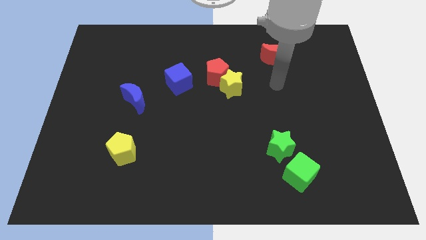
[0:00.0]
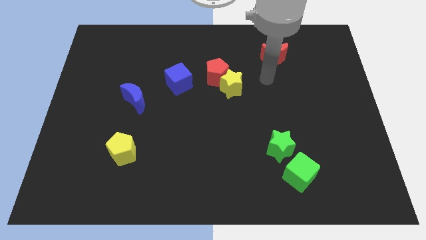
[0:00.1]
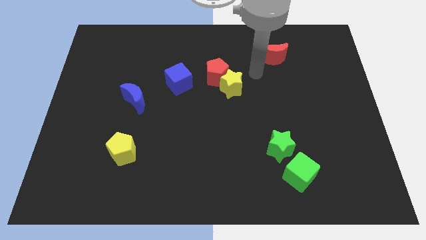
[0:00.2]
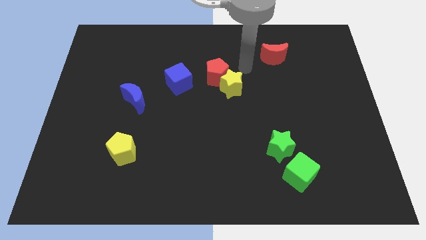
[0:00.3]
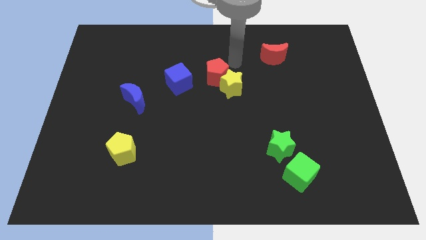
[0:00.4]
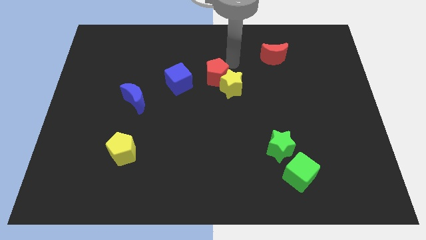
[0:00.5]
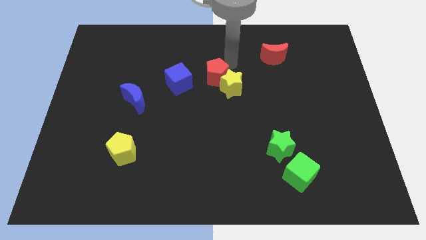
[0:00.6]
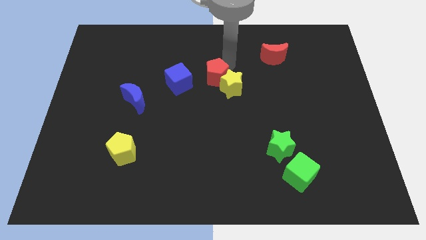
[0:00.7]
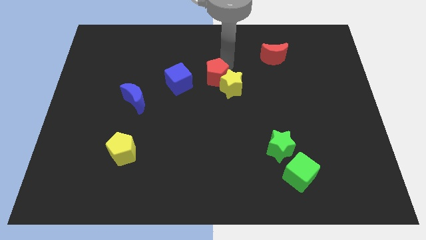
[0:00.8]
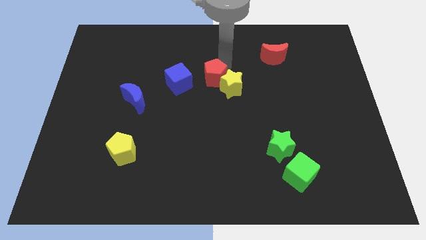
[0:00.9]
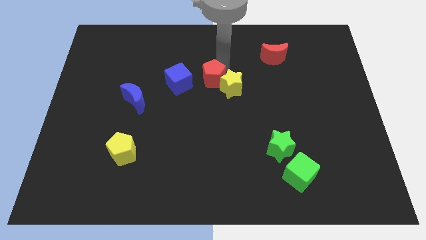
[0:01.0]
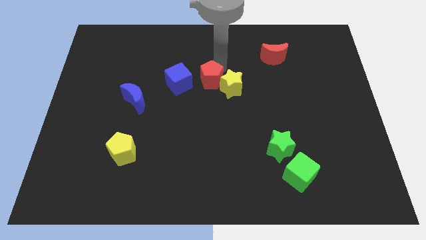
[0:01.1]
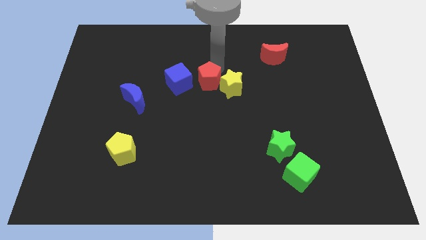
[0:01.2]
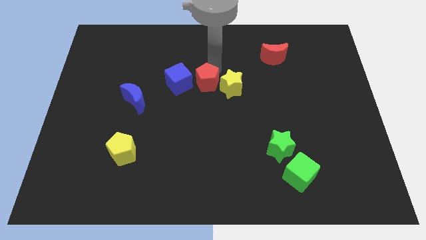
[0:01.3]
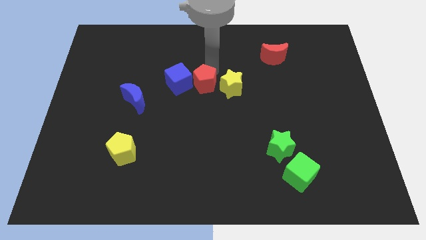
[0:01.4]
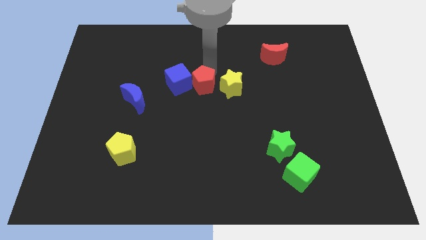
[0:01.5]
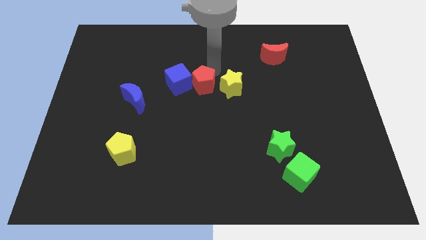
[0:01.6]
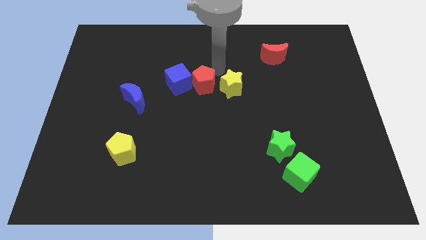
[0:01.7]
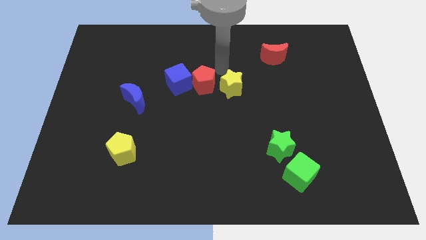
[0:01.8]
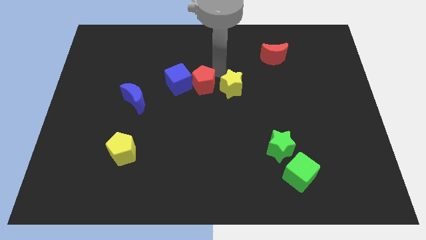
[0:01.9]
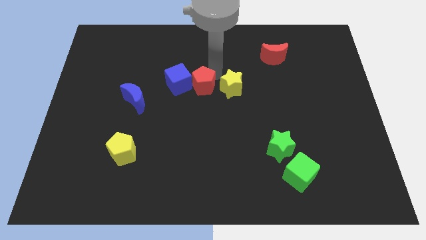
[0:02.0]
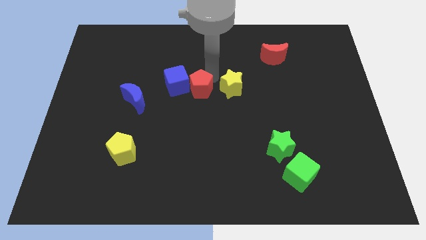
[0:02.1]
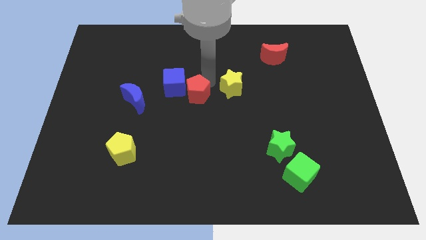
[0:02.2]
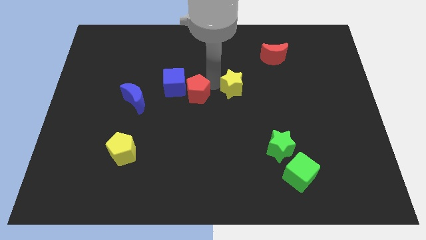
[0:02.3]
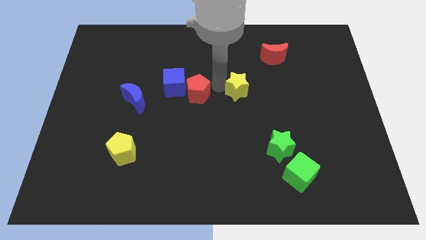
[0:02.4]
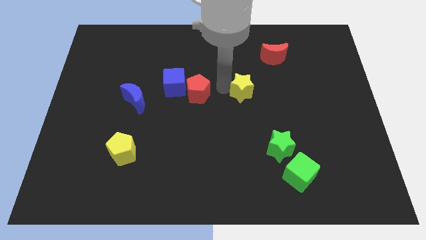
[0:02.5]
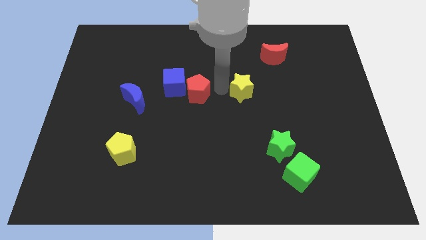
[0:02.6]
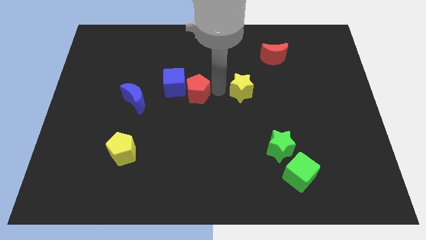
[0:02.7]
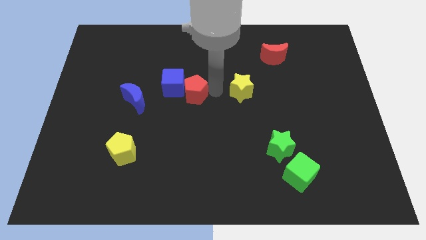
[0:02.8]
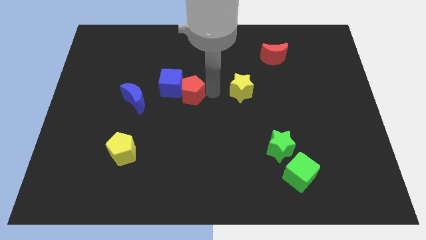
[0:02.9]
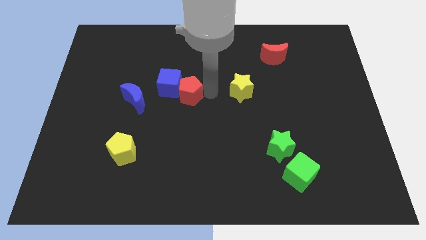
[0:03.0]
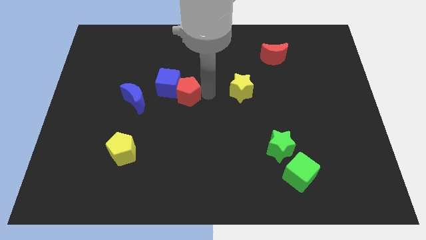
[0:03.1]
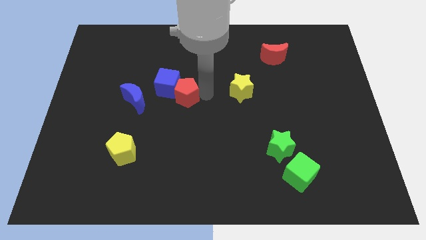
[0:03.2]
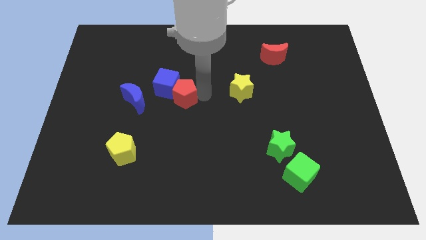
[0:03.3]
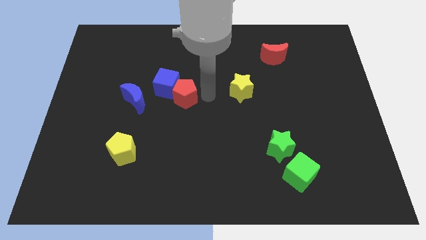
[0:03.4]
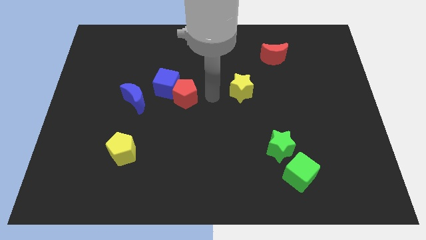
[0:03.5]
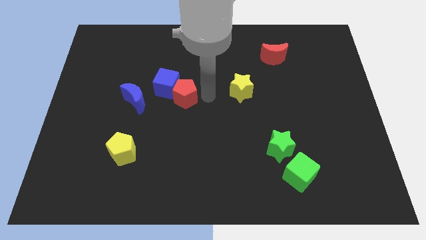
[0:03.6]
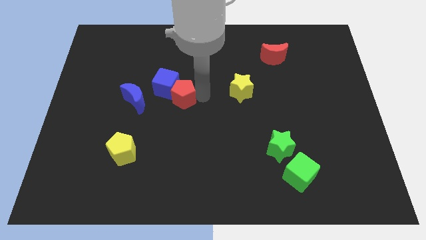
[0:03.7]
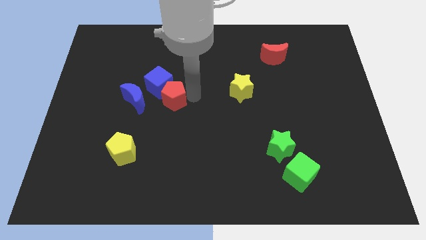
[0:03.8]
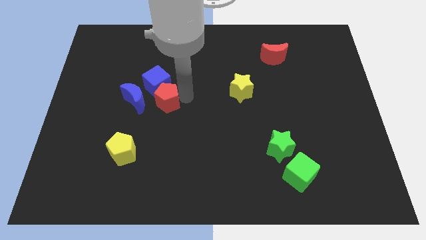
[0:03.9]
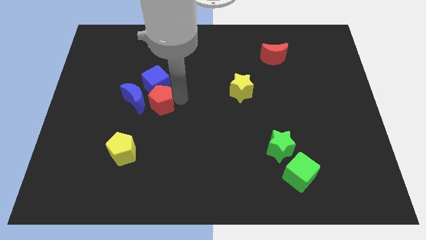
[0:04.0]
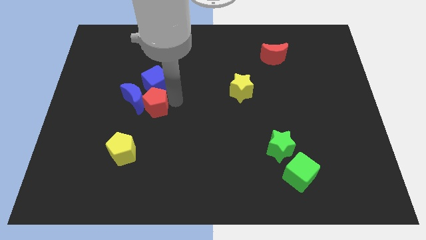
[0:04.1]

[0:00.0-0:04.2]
put the red pentagon next to the blue moon

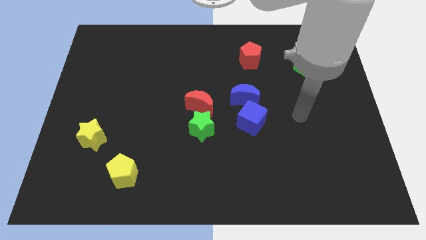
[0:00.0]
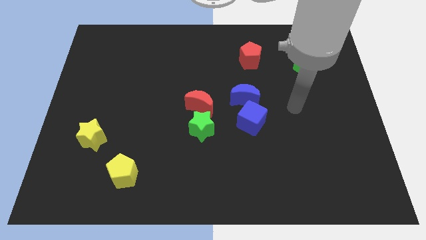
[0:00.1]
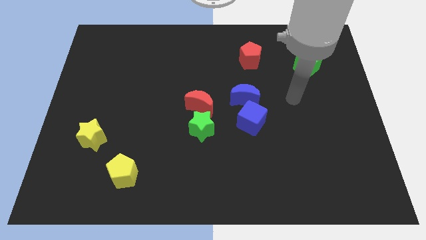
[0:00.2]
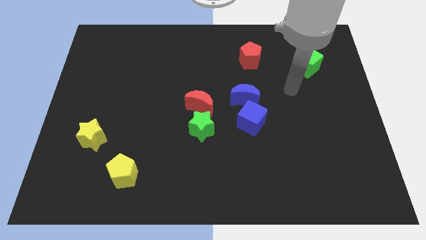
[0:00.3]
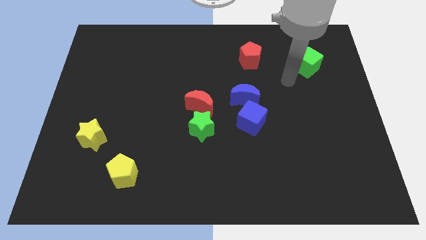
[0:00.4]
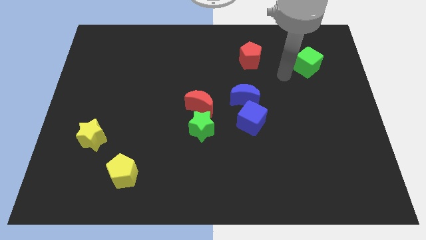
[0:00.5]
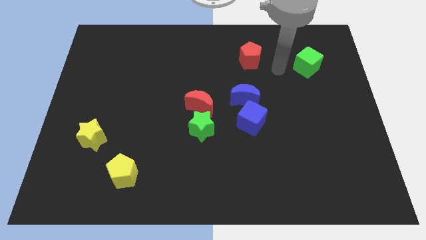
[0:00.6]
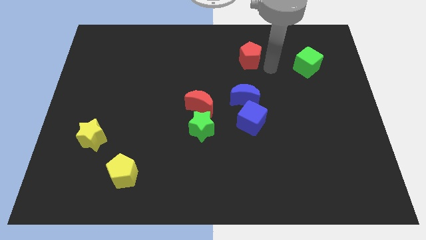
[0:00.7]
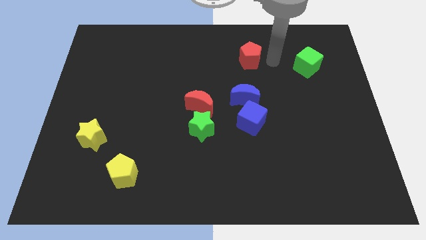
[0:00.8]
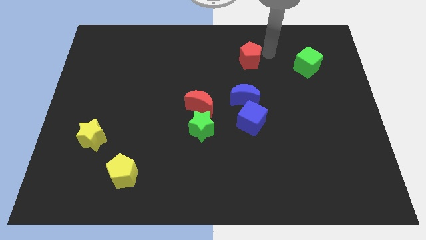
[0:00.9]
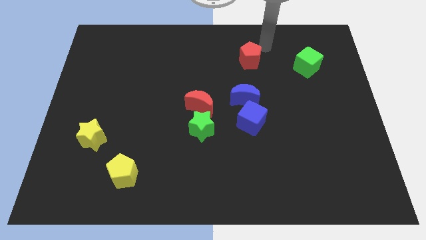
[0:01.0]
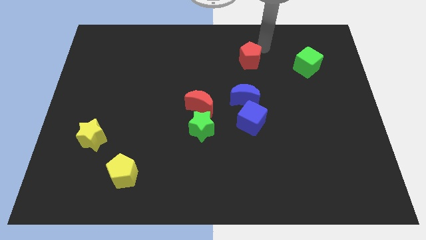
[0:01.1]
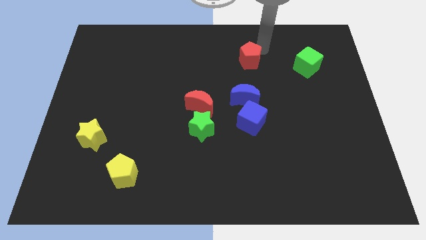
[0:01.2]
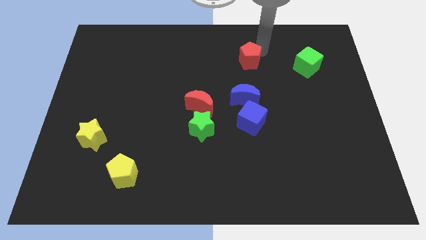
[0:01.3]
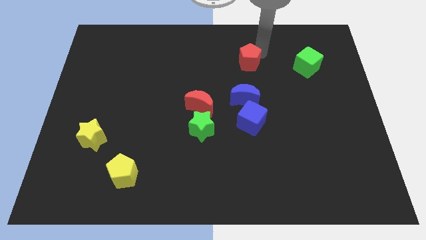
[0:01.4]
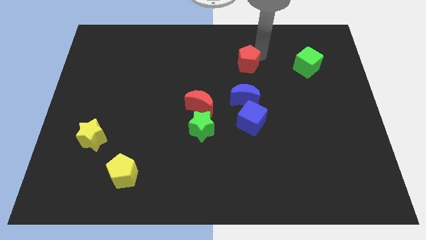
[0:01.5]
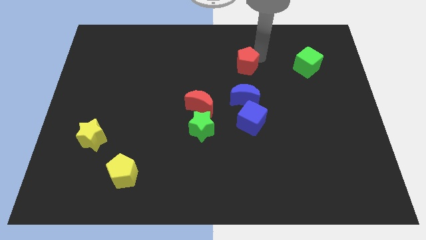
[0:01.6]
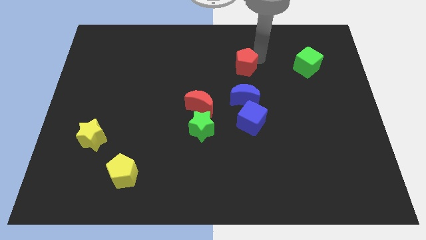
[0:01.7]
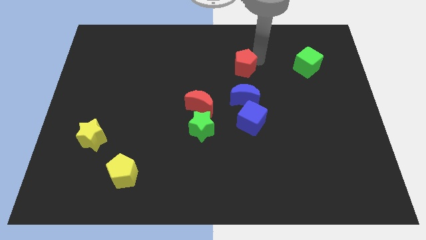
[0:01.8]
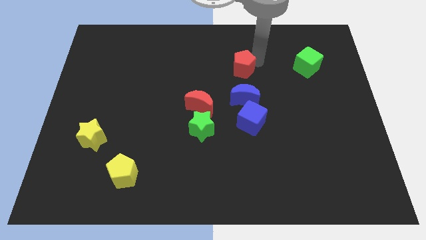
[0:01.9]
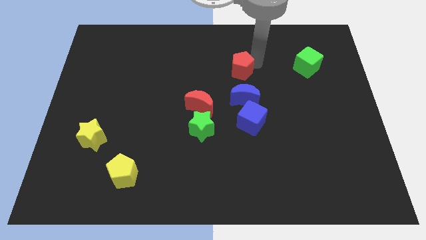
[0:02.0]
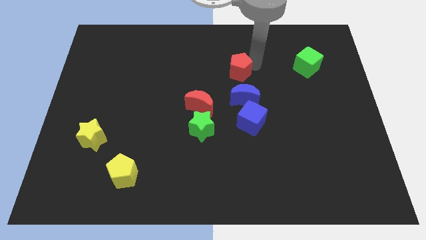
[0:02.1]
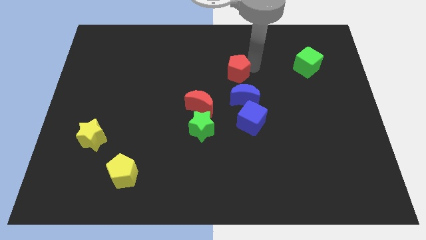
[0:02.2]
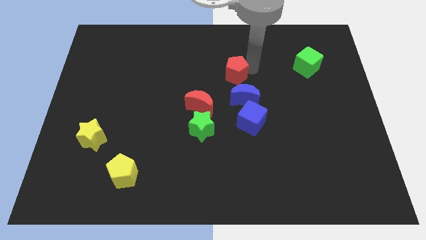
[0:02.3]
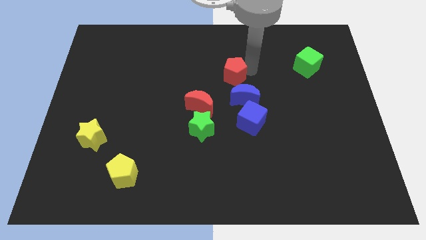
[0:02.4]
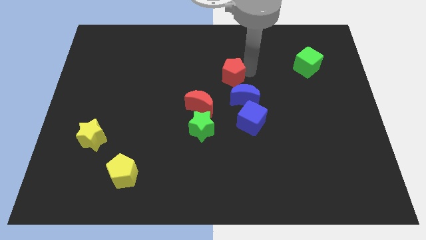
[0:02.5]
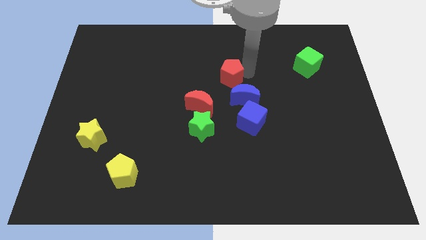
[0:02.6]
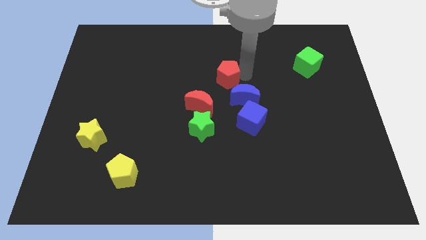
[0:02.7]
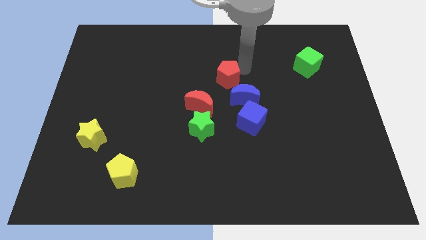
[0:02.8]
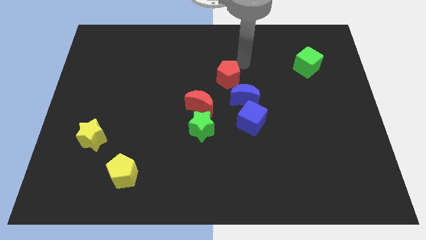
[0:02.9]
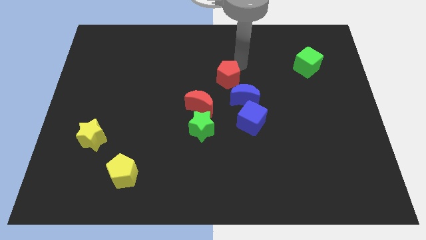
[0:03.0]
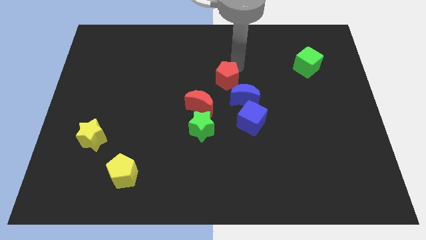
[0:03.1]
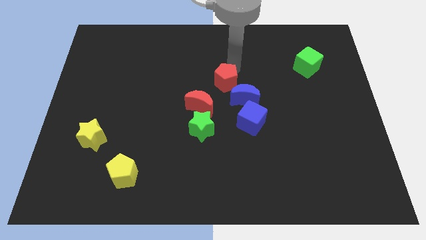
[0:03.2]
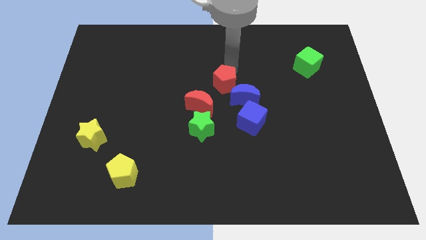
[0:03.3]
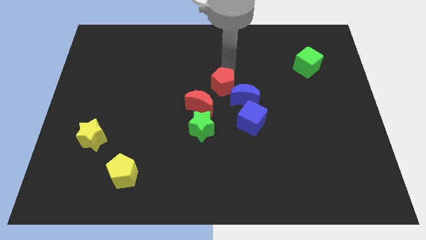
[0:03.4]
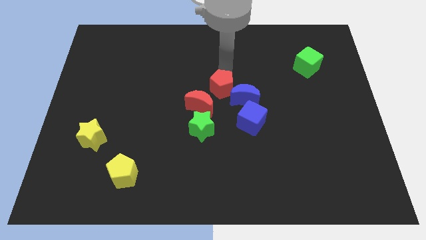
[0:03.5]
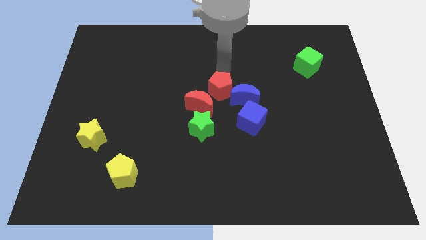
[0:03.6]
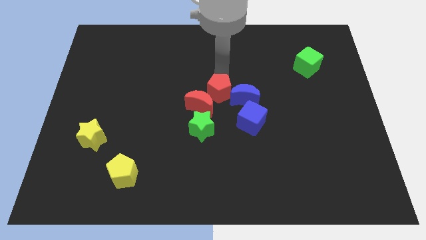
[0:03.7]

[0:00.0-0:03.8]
move the red pentagon to the red moon

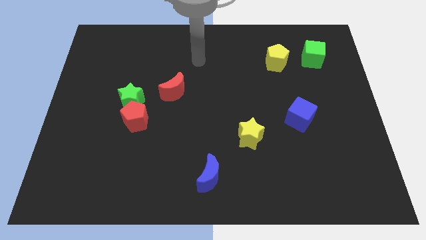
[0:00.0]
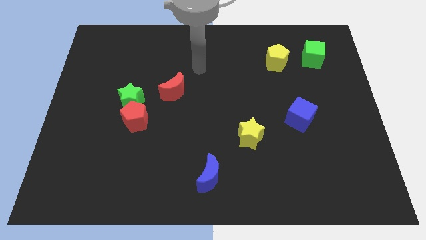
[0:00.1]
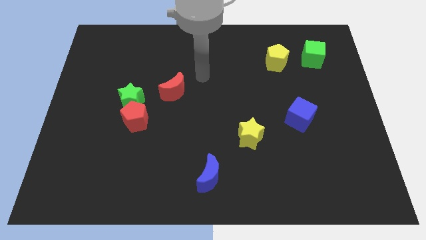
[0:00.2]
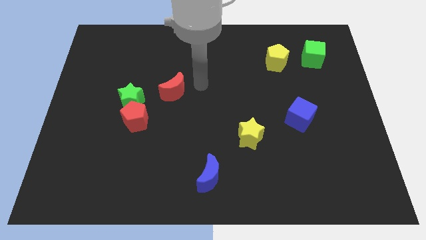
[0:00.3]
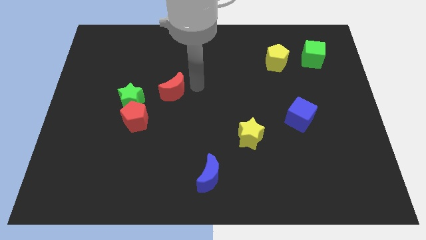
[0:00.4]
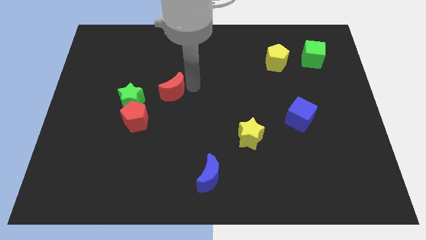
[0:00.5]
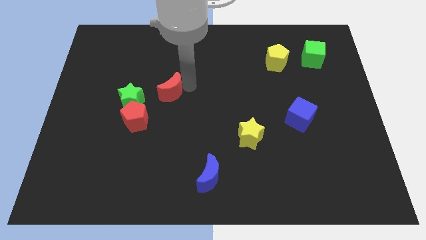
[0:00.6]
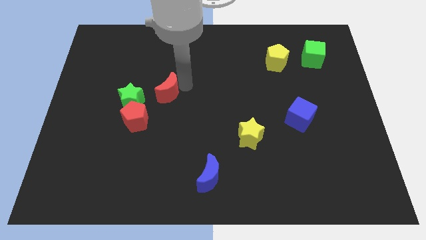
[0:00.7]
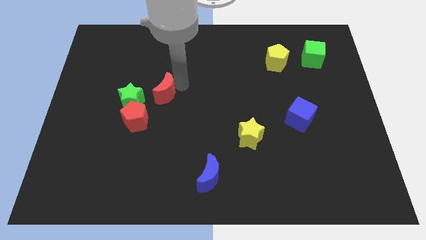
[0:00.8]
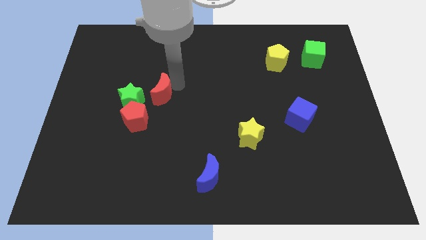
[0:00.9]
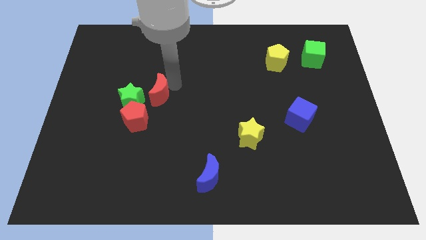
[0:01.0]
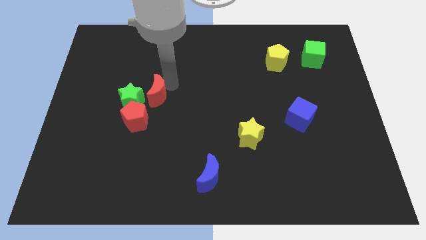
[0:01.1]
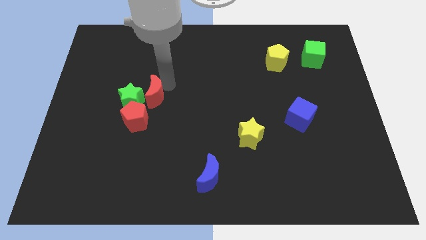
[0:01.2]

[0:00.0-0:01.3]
push the red moon next to the green star
